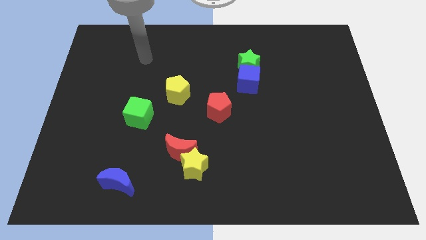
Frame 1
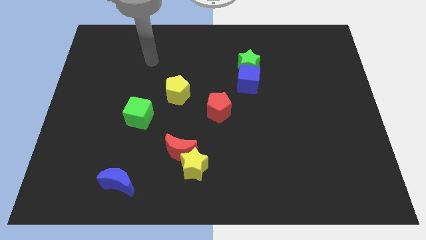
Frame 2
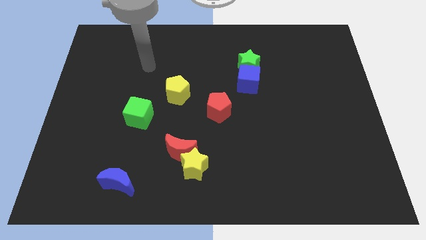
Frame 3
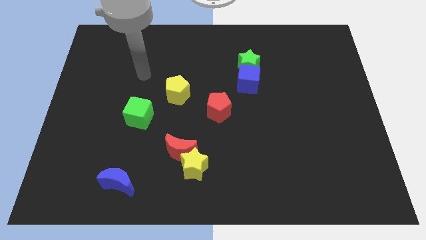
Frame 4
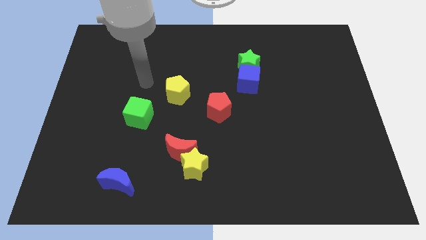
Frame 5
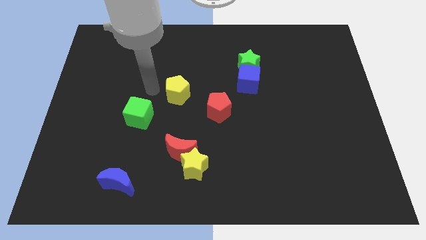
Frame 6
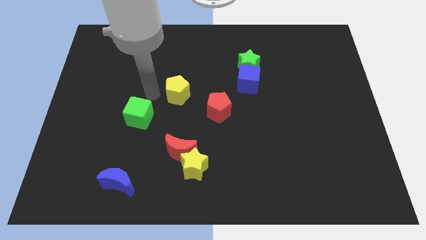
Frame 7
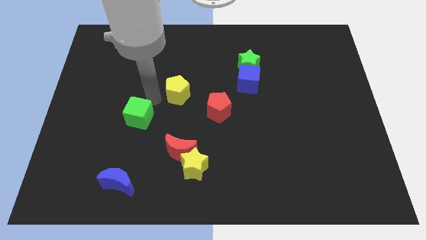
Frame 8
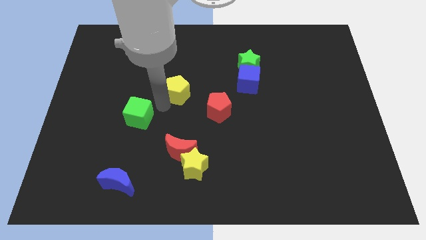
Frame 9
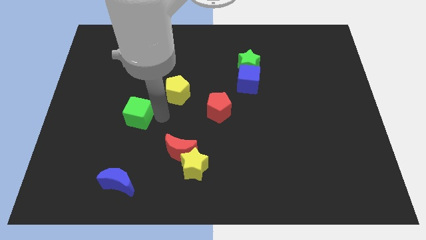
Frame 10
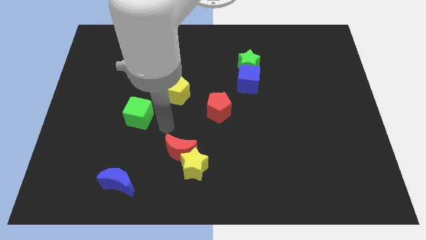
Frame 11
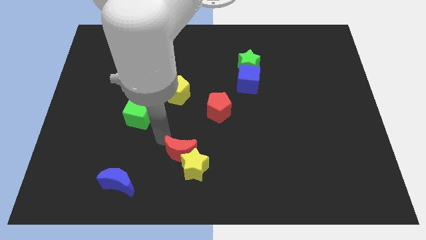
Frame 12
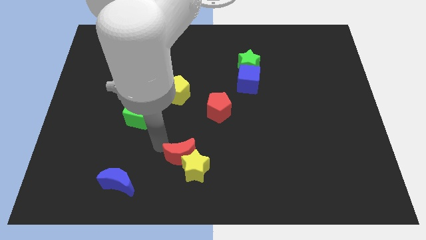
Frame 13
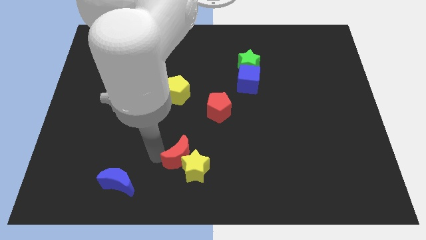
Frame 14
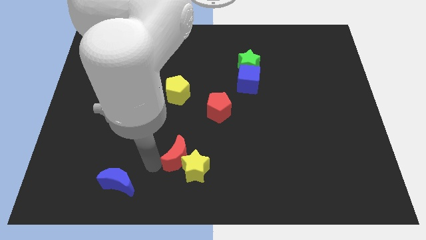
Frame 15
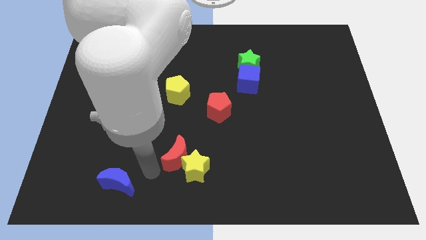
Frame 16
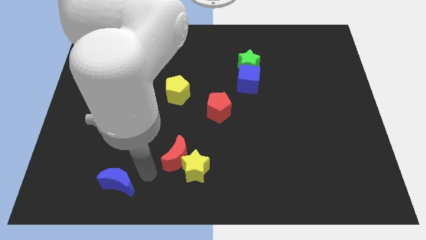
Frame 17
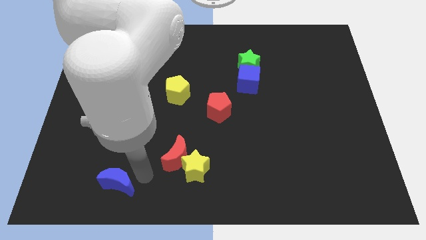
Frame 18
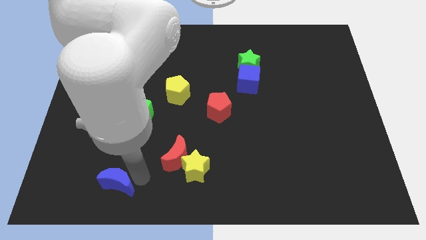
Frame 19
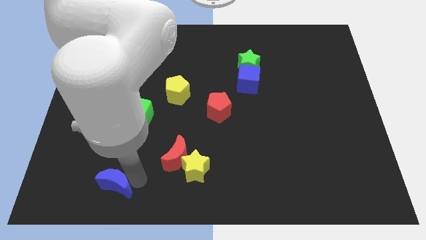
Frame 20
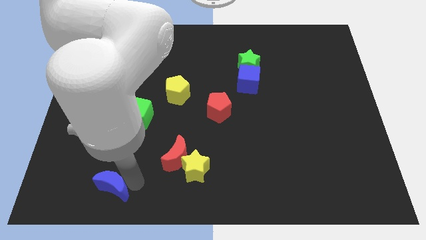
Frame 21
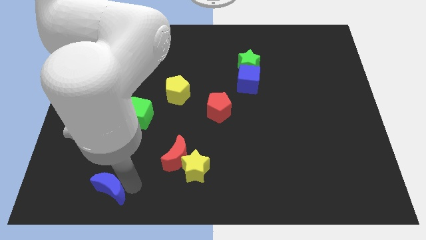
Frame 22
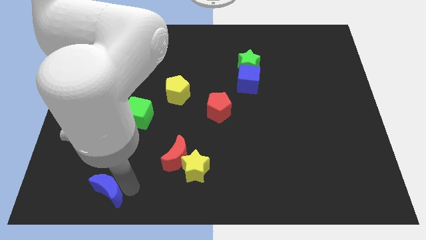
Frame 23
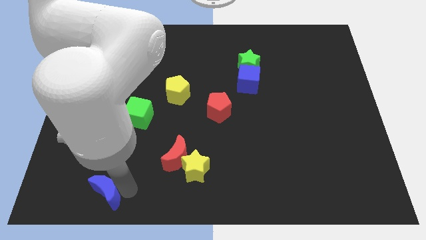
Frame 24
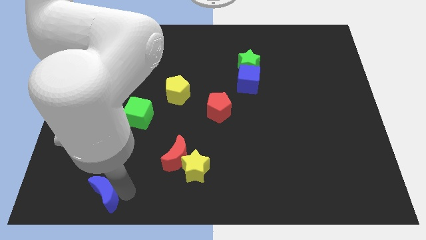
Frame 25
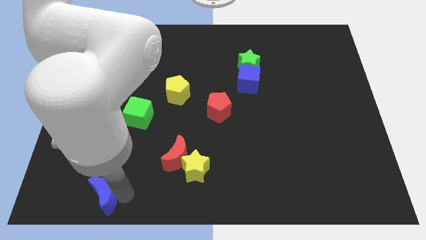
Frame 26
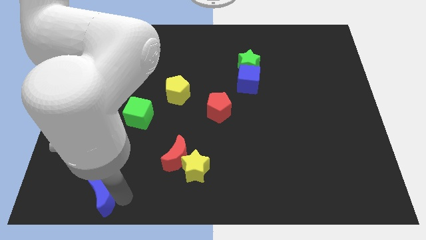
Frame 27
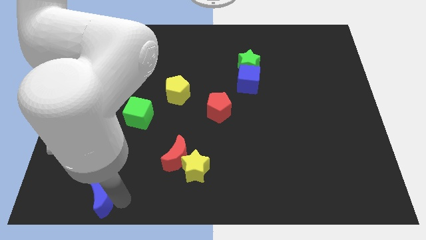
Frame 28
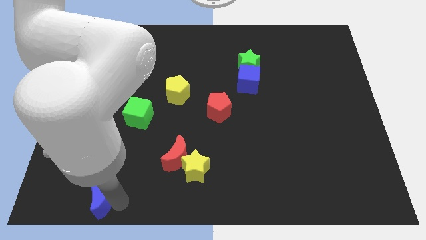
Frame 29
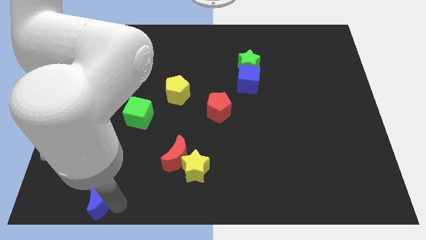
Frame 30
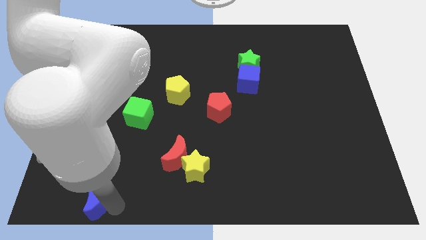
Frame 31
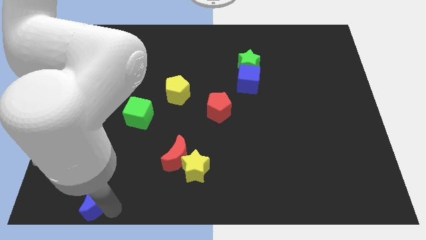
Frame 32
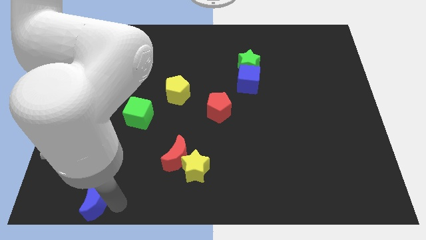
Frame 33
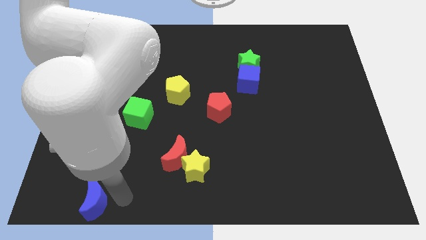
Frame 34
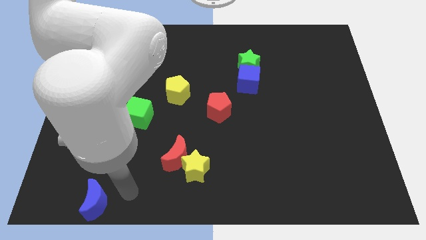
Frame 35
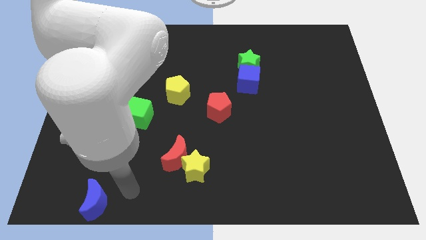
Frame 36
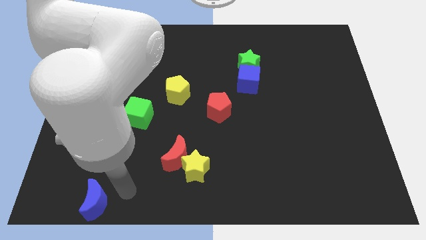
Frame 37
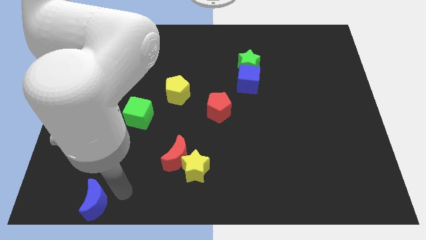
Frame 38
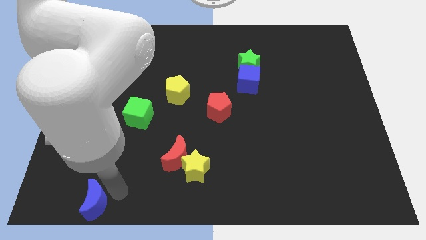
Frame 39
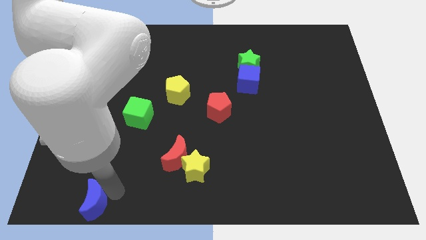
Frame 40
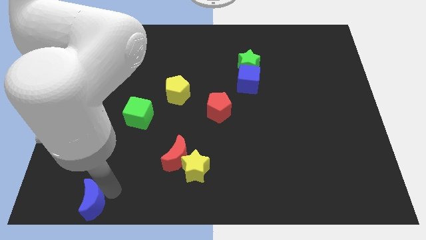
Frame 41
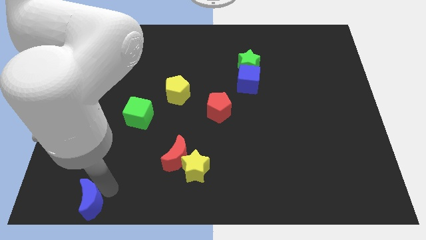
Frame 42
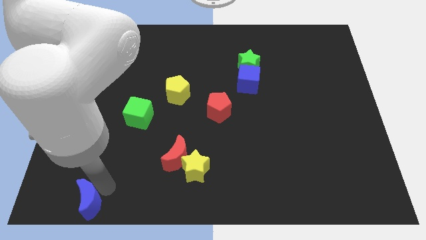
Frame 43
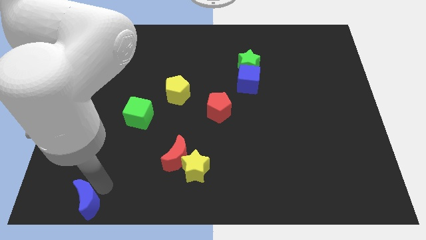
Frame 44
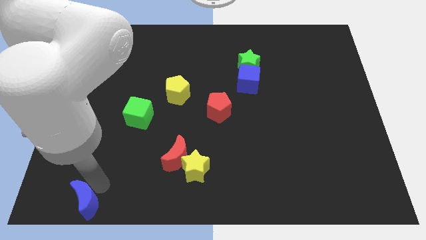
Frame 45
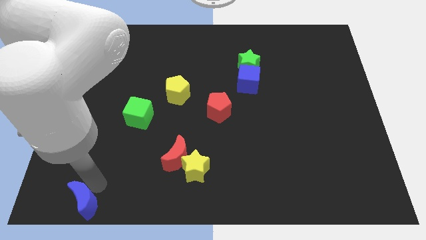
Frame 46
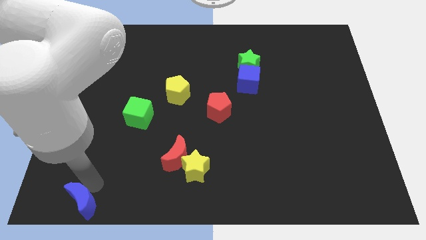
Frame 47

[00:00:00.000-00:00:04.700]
slide the blue moon to the bottom left of the board

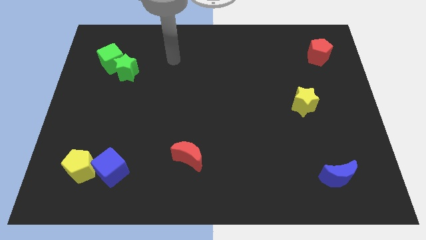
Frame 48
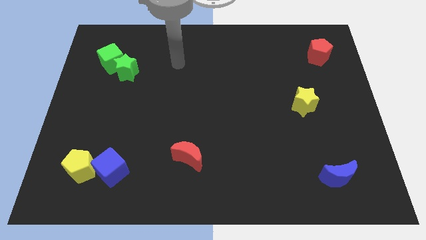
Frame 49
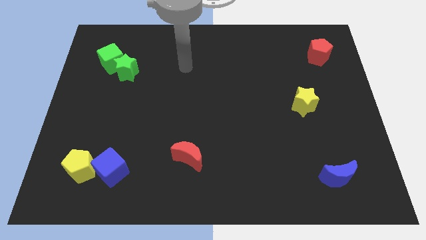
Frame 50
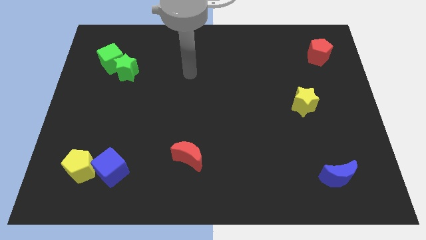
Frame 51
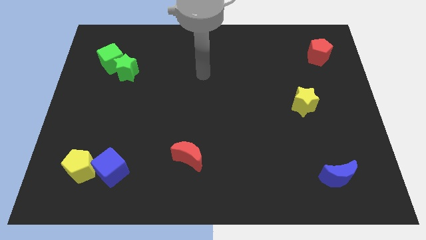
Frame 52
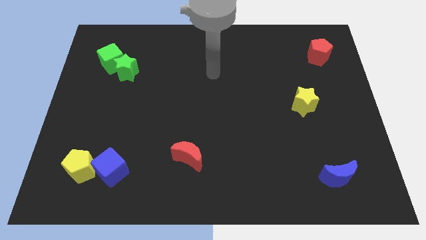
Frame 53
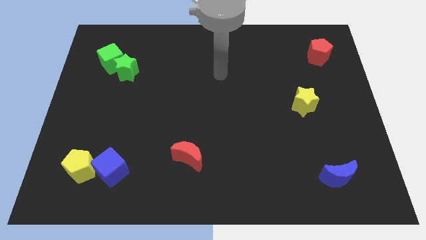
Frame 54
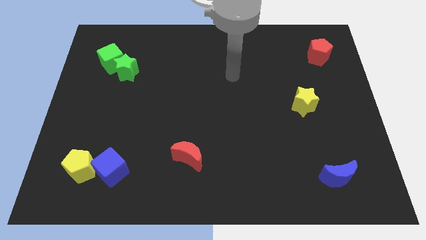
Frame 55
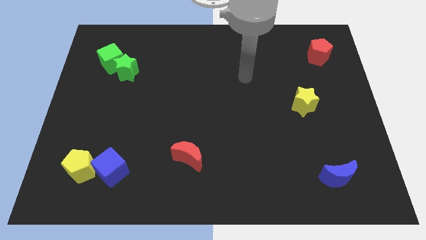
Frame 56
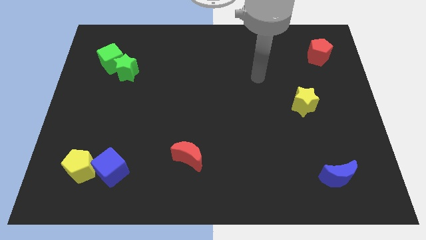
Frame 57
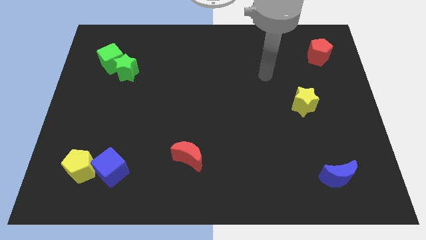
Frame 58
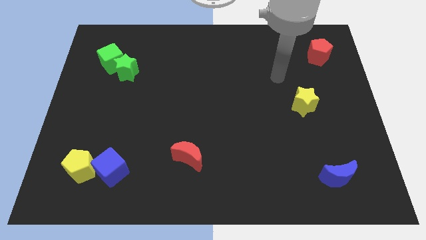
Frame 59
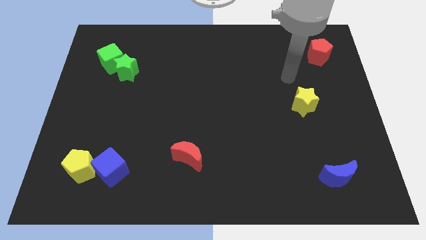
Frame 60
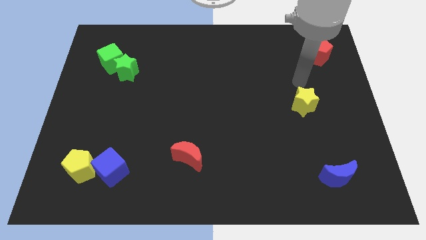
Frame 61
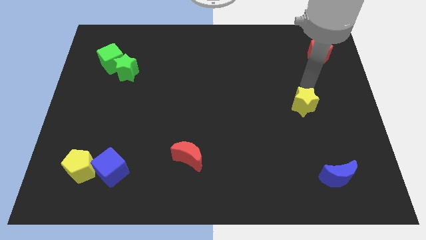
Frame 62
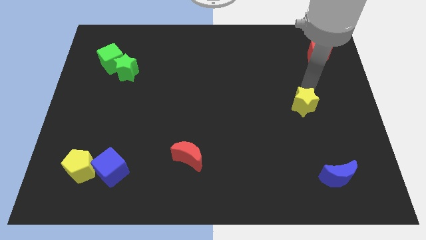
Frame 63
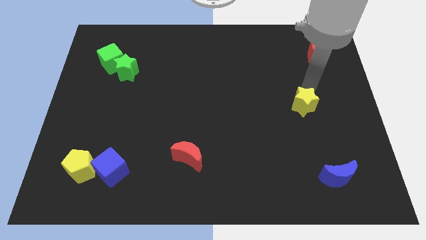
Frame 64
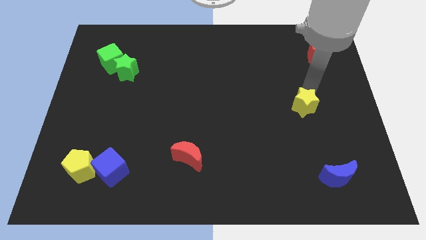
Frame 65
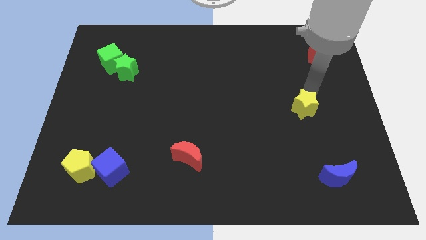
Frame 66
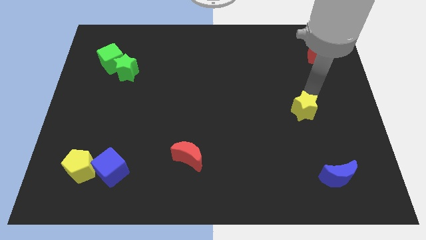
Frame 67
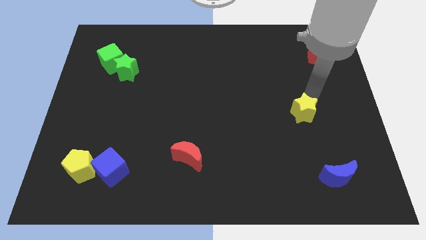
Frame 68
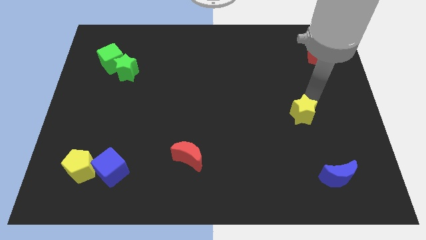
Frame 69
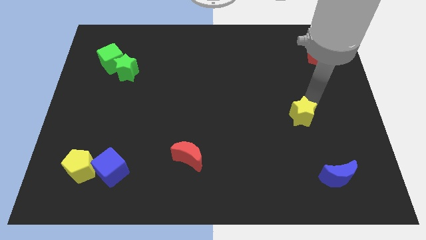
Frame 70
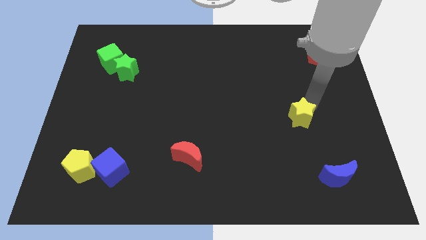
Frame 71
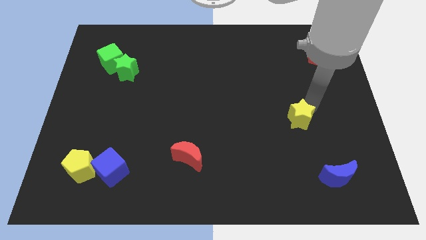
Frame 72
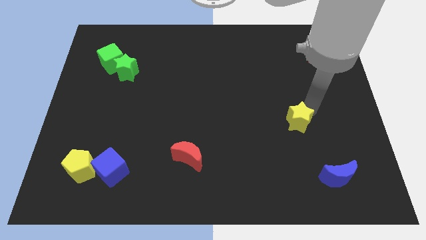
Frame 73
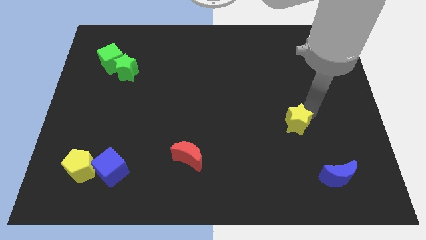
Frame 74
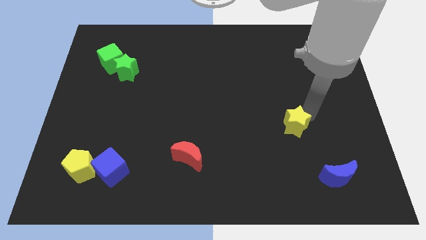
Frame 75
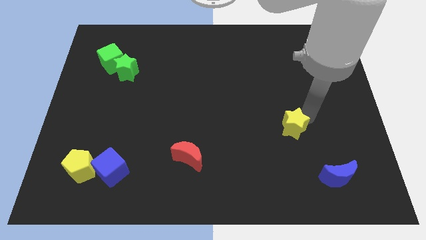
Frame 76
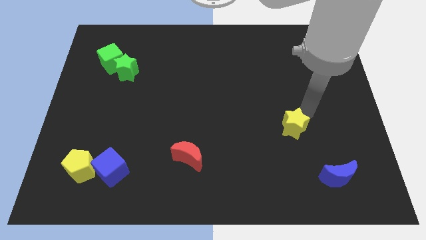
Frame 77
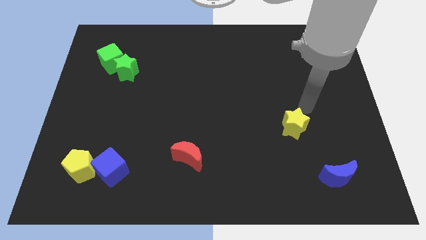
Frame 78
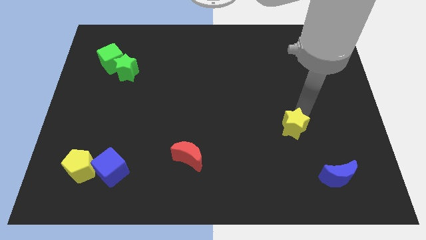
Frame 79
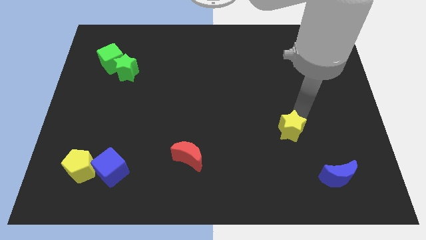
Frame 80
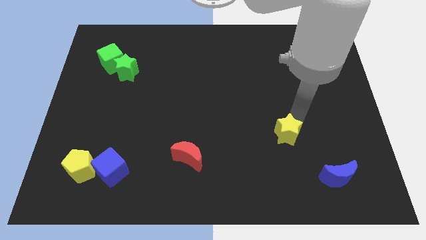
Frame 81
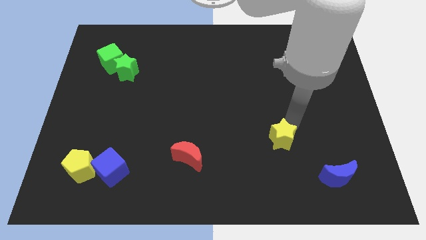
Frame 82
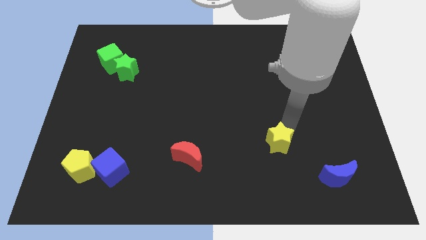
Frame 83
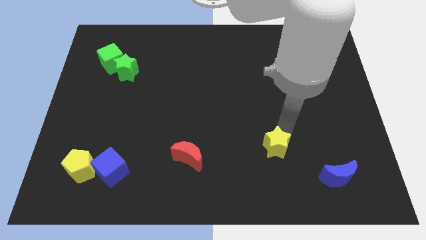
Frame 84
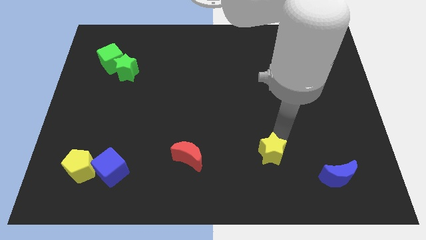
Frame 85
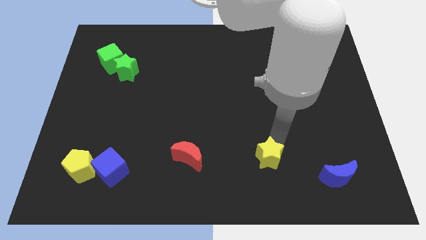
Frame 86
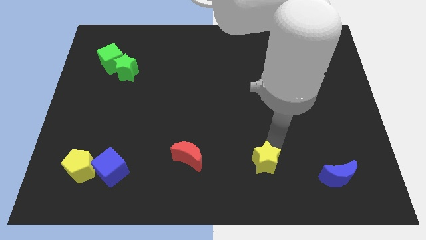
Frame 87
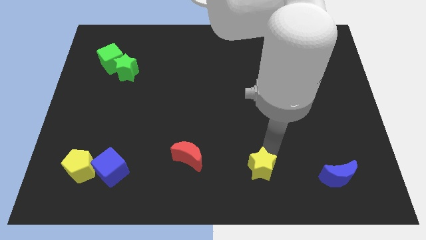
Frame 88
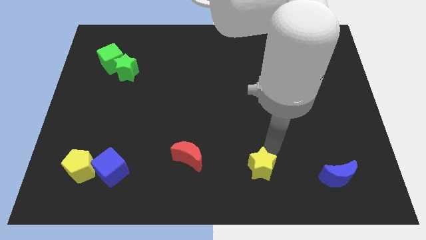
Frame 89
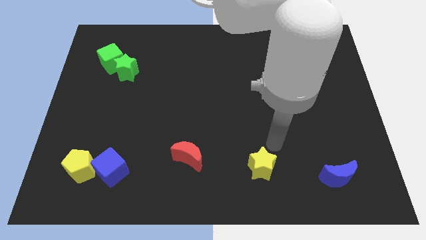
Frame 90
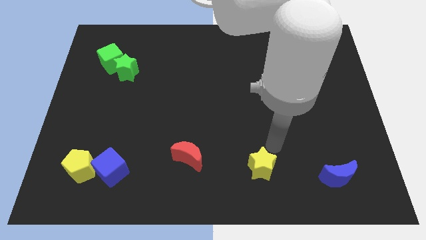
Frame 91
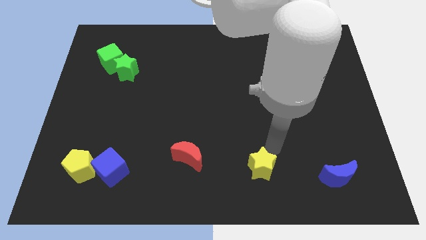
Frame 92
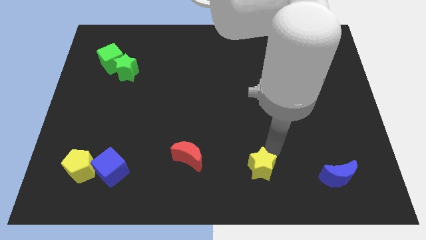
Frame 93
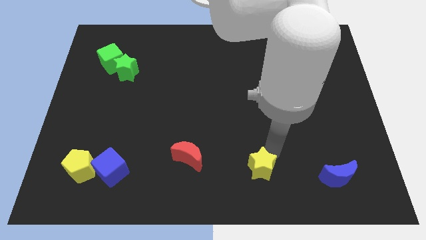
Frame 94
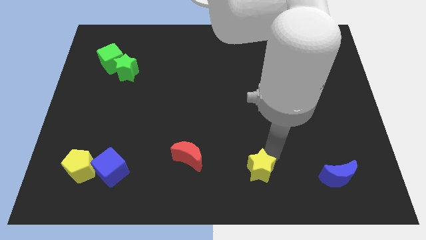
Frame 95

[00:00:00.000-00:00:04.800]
push the yellow star to the bottom
